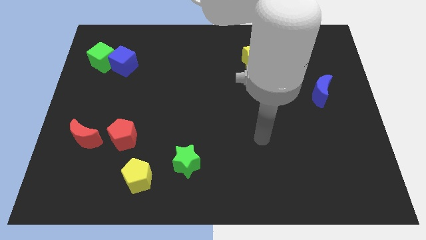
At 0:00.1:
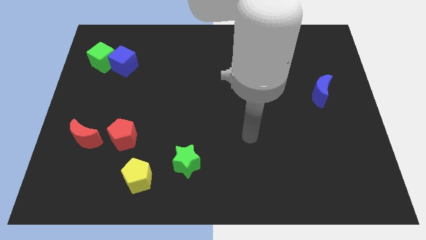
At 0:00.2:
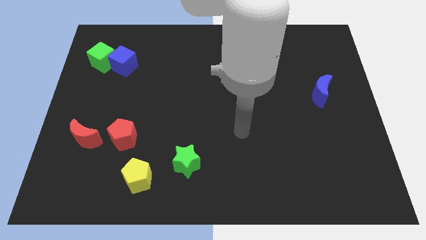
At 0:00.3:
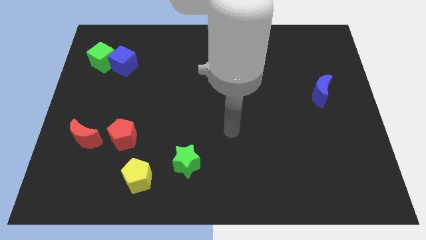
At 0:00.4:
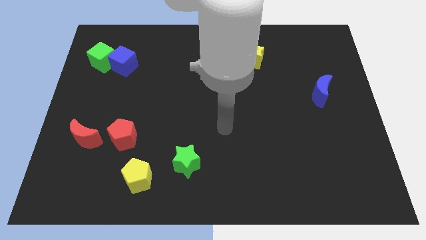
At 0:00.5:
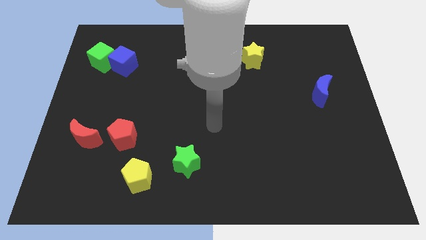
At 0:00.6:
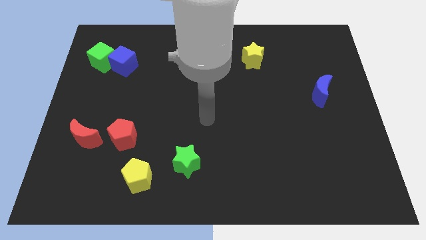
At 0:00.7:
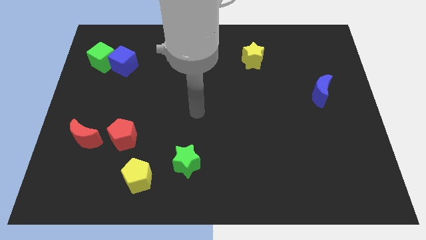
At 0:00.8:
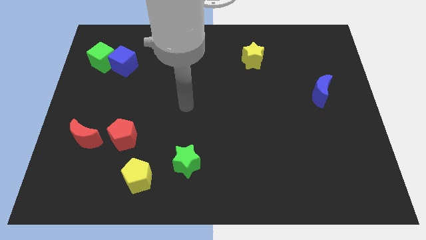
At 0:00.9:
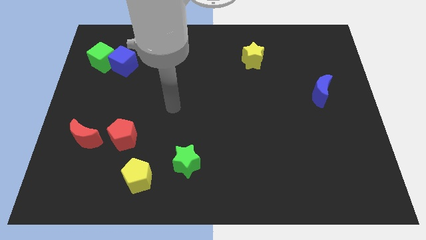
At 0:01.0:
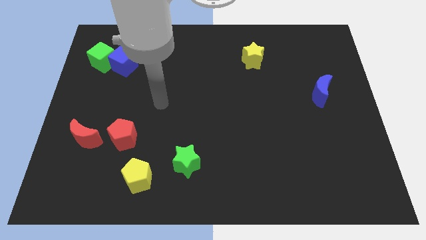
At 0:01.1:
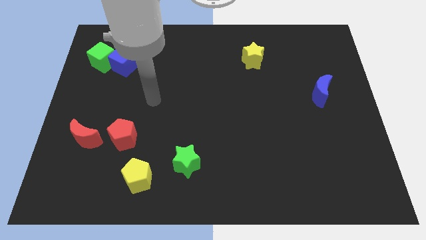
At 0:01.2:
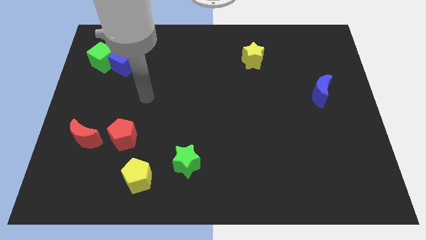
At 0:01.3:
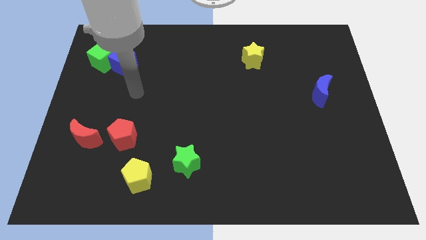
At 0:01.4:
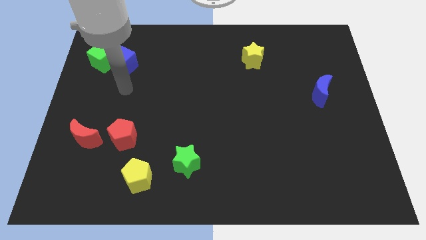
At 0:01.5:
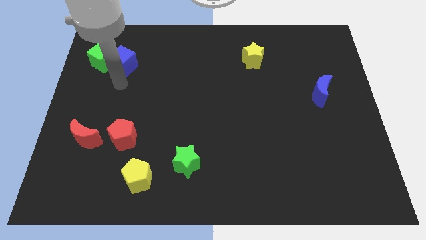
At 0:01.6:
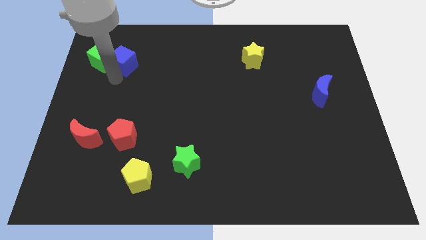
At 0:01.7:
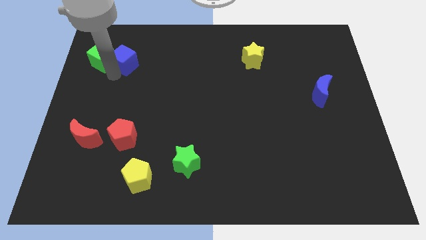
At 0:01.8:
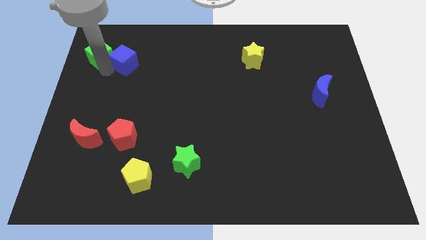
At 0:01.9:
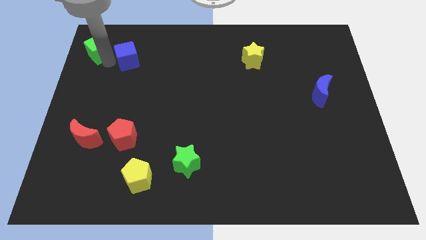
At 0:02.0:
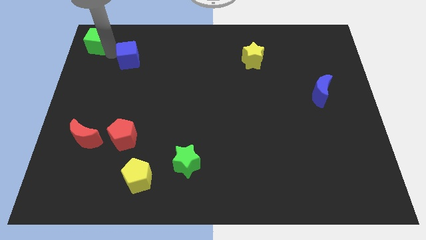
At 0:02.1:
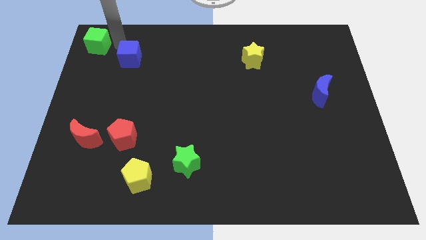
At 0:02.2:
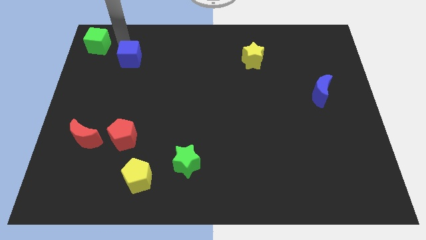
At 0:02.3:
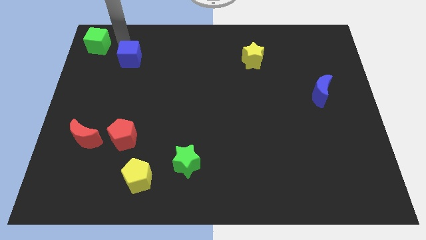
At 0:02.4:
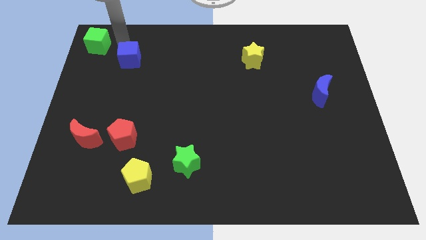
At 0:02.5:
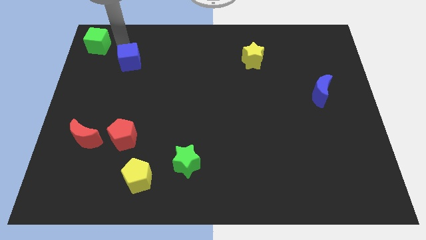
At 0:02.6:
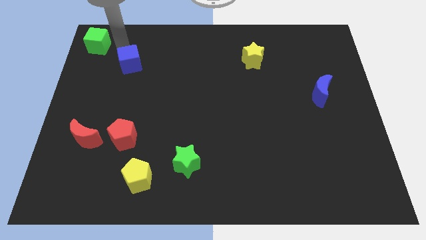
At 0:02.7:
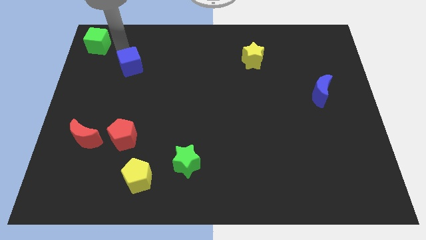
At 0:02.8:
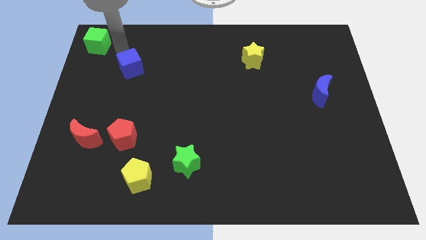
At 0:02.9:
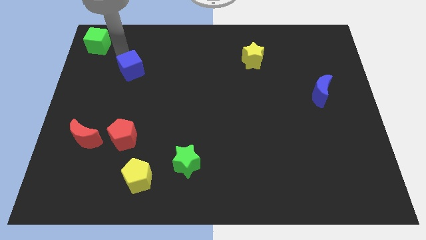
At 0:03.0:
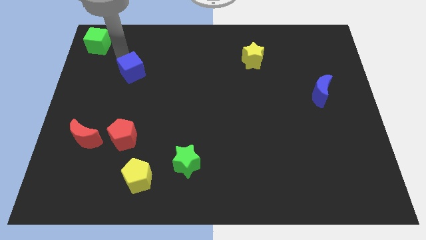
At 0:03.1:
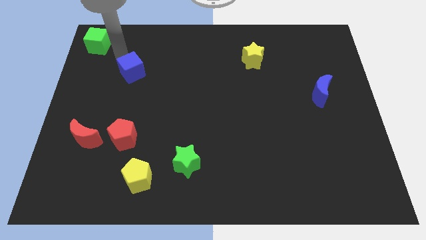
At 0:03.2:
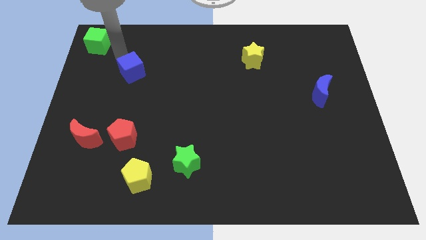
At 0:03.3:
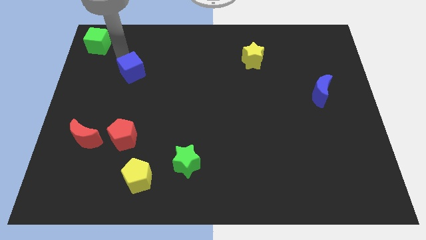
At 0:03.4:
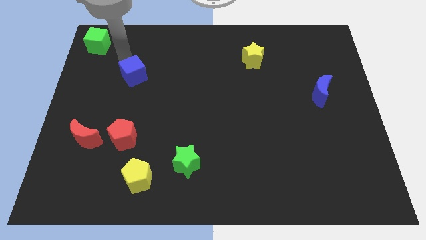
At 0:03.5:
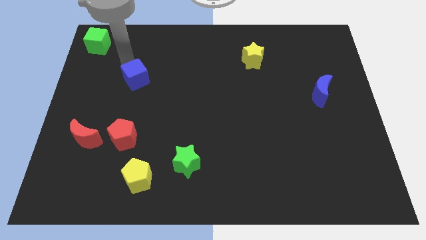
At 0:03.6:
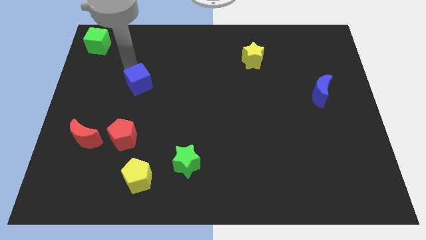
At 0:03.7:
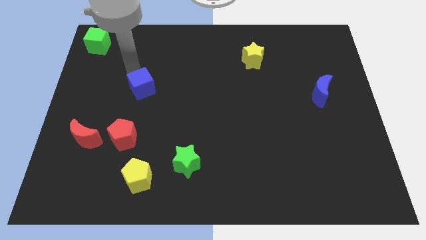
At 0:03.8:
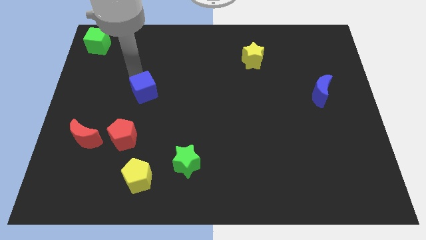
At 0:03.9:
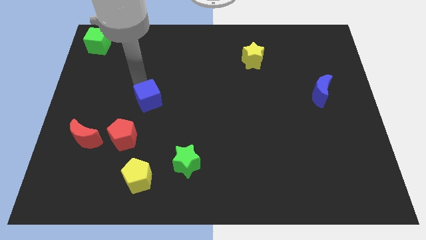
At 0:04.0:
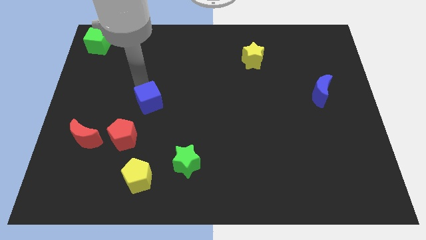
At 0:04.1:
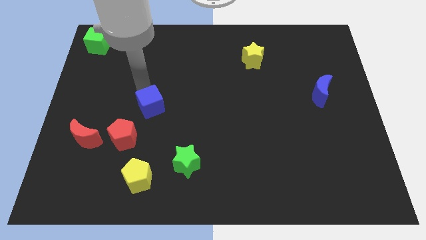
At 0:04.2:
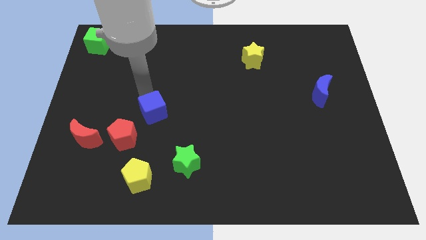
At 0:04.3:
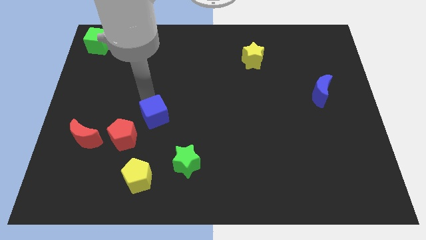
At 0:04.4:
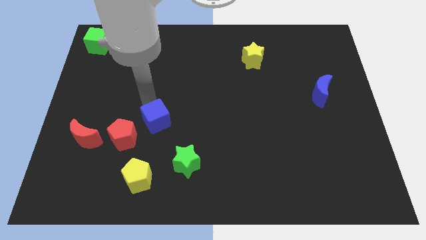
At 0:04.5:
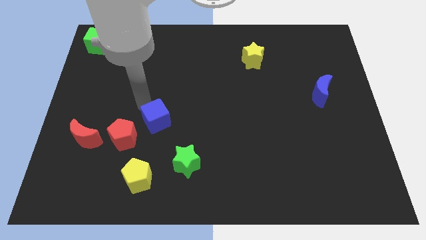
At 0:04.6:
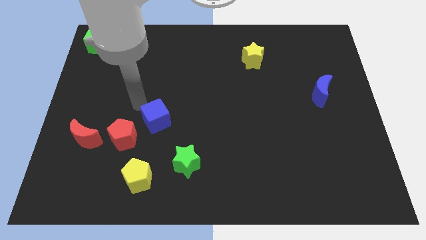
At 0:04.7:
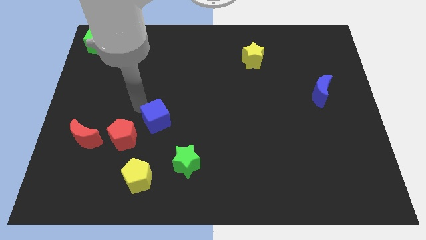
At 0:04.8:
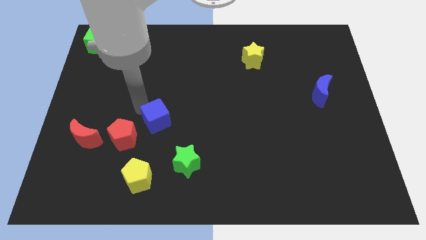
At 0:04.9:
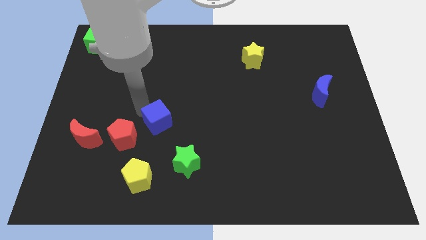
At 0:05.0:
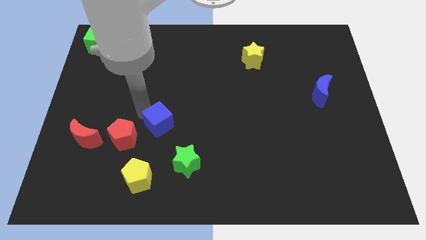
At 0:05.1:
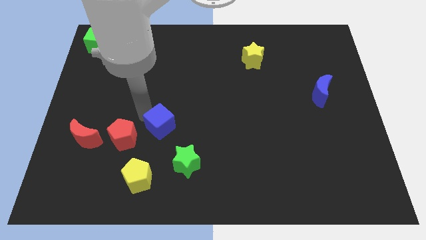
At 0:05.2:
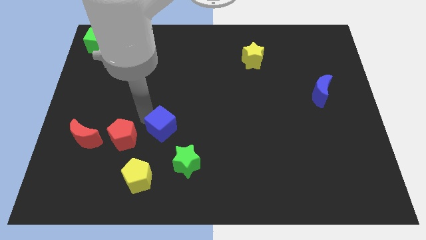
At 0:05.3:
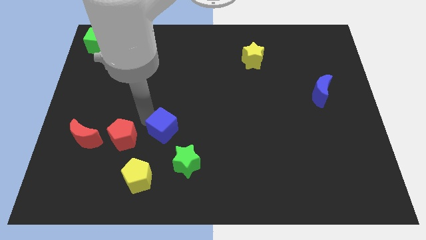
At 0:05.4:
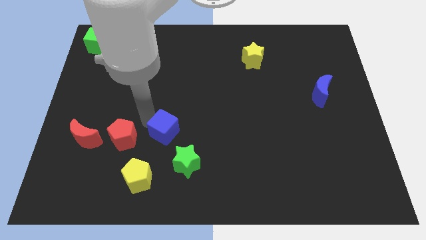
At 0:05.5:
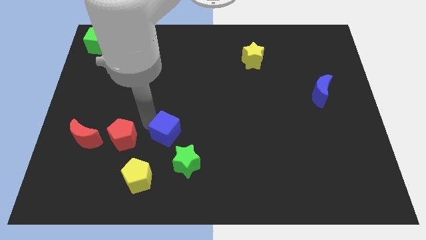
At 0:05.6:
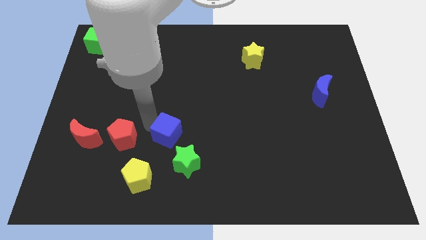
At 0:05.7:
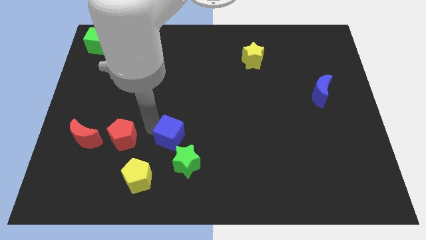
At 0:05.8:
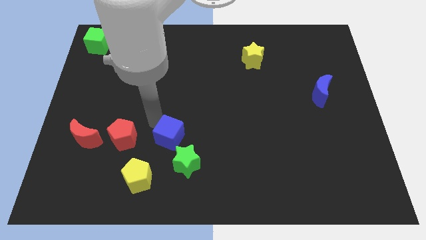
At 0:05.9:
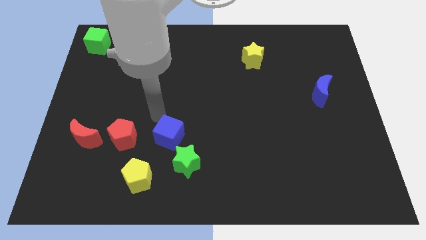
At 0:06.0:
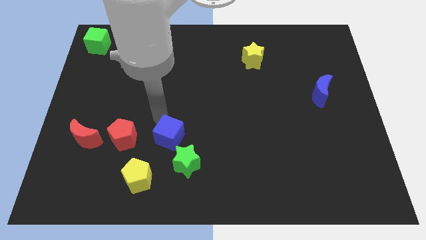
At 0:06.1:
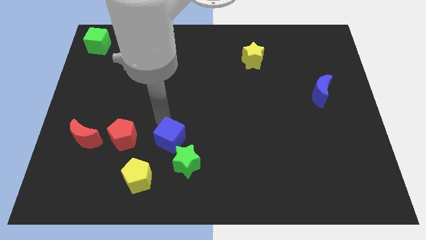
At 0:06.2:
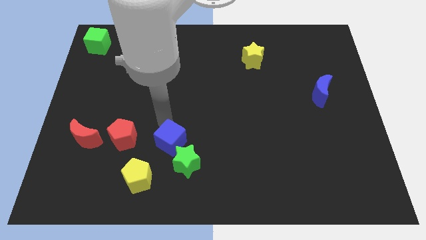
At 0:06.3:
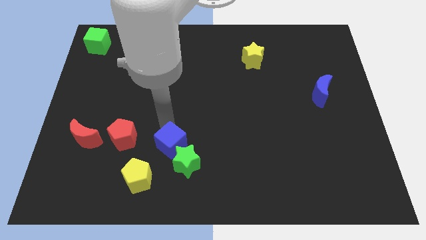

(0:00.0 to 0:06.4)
move the blue cube close to the green star

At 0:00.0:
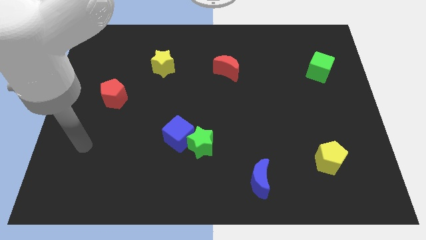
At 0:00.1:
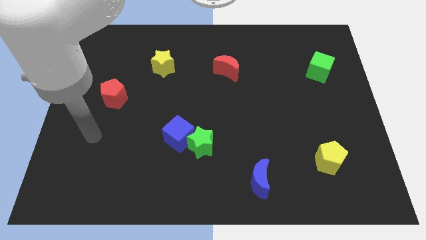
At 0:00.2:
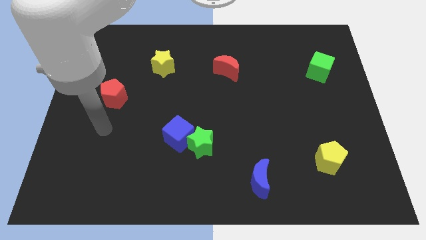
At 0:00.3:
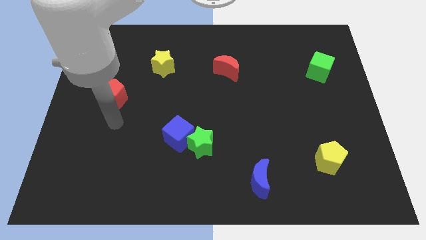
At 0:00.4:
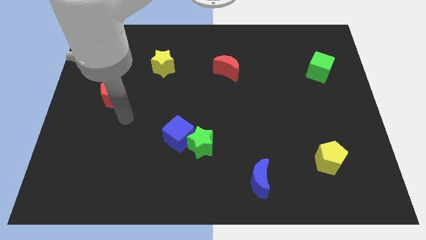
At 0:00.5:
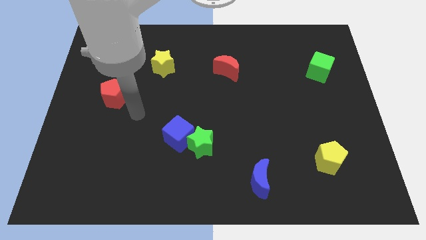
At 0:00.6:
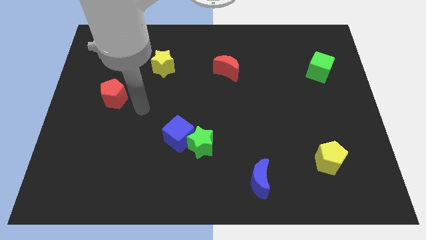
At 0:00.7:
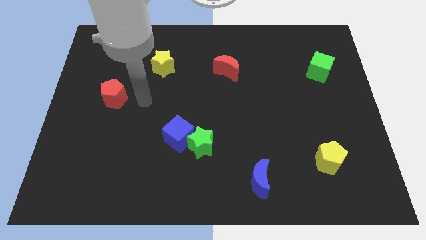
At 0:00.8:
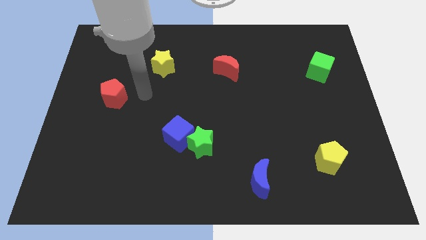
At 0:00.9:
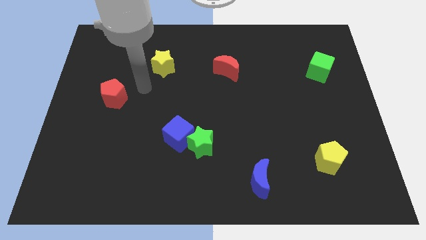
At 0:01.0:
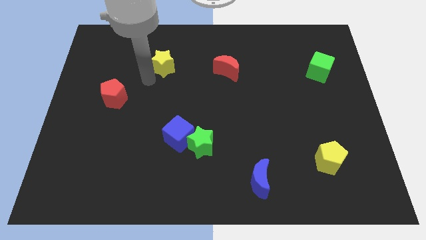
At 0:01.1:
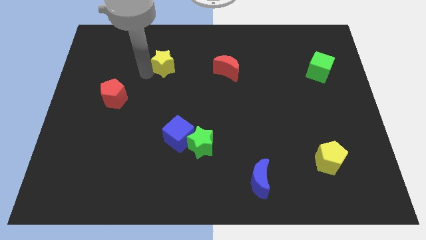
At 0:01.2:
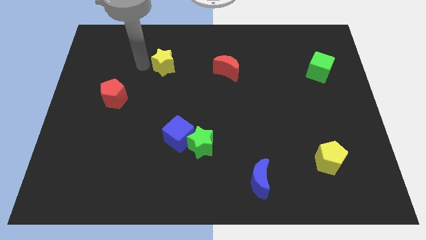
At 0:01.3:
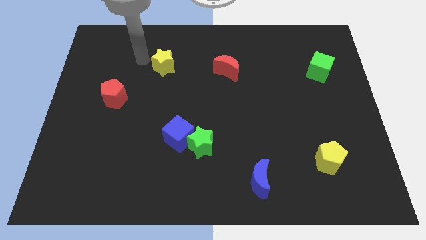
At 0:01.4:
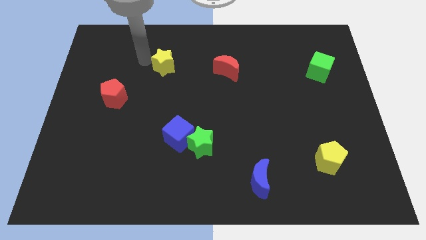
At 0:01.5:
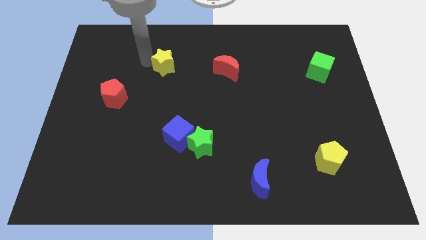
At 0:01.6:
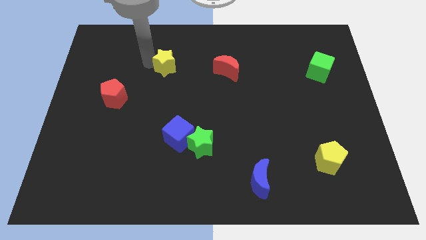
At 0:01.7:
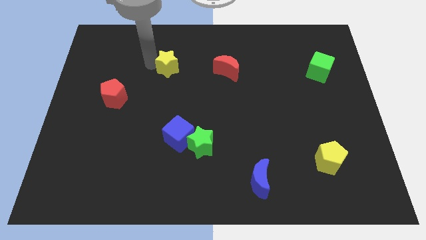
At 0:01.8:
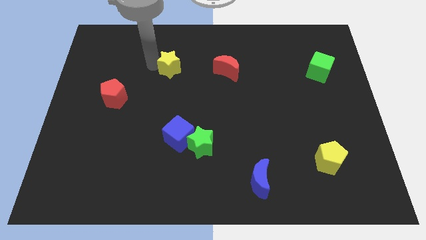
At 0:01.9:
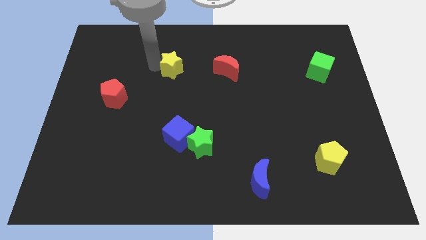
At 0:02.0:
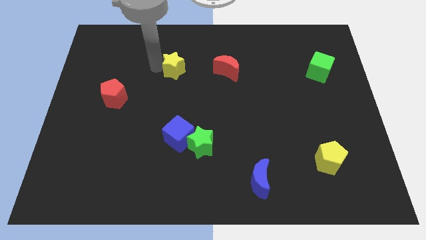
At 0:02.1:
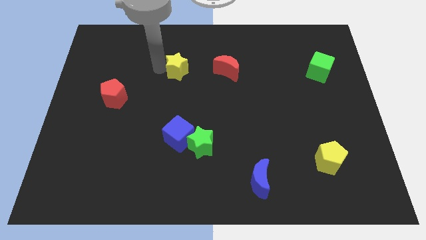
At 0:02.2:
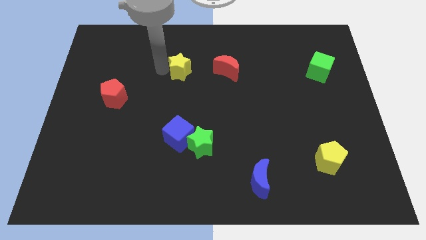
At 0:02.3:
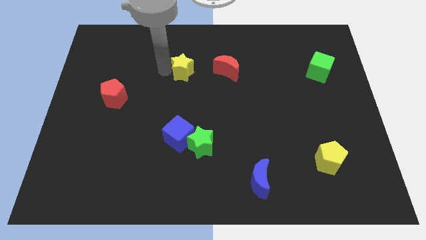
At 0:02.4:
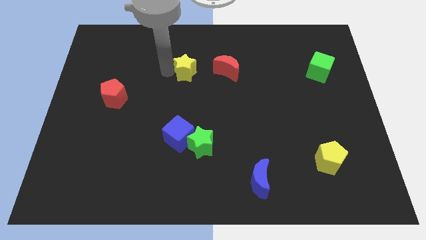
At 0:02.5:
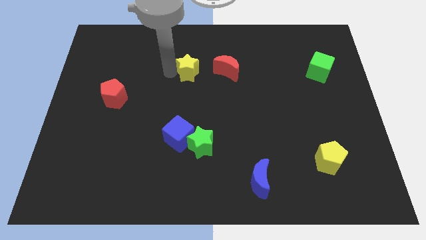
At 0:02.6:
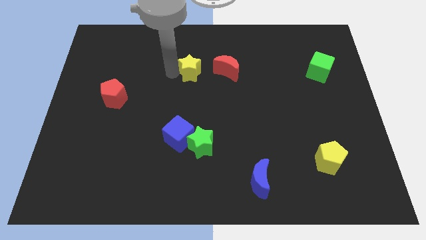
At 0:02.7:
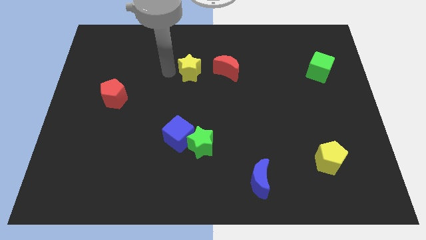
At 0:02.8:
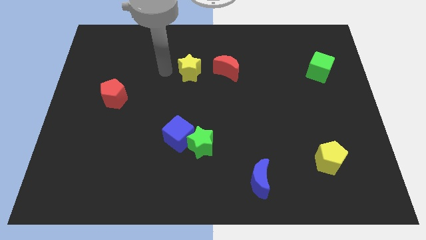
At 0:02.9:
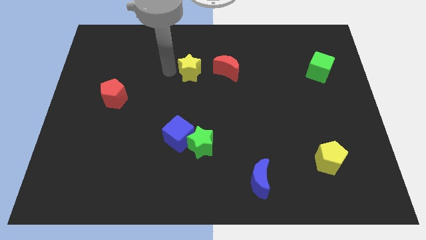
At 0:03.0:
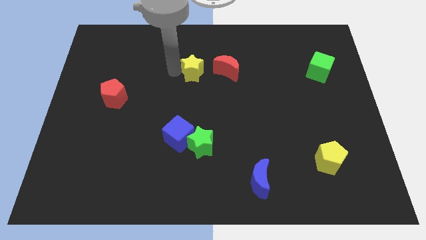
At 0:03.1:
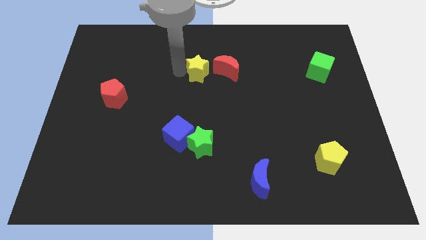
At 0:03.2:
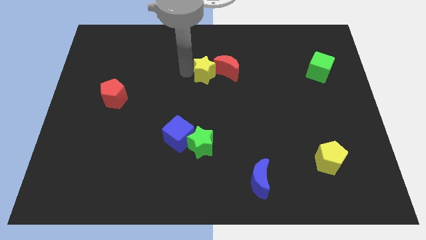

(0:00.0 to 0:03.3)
push the yellow star to the red moon
